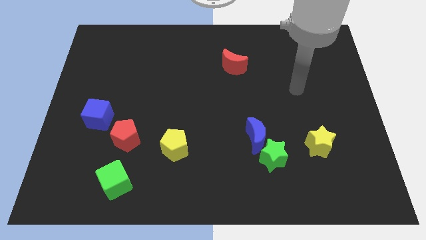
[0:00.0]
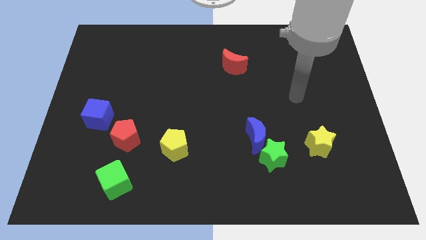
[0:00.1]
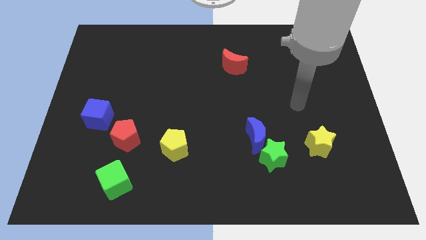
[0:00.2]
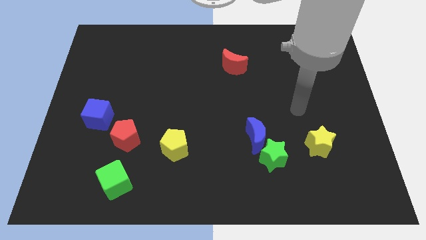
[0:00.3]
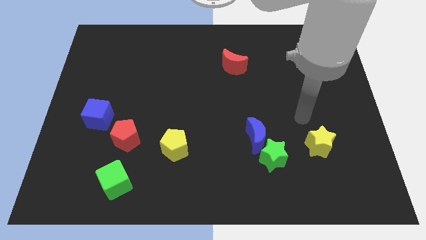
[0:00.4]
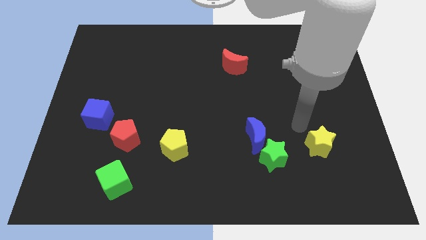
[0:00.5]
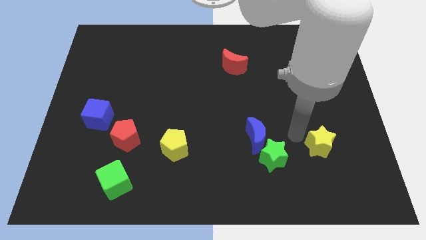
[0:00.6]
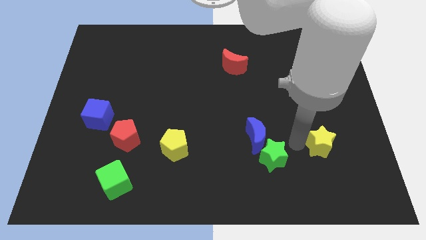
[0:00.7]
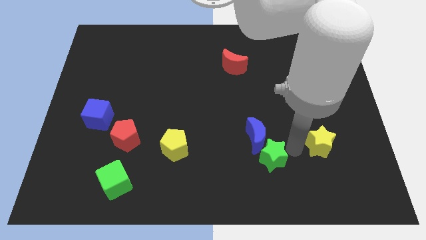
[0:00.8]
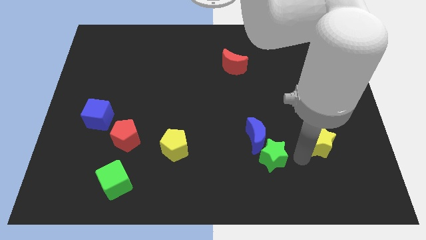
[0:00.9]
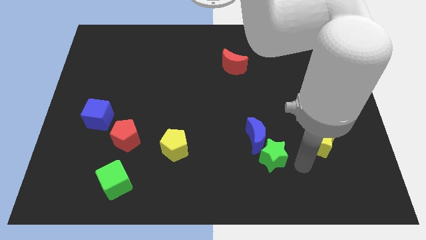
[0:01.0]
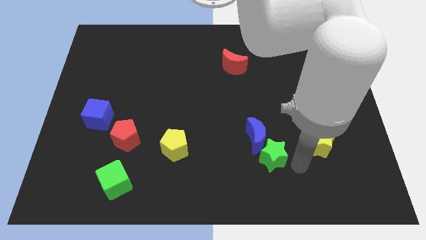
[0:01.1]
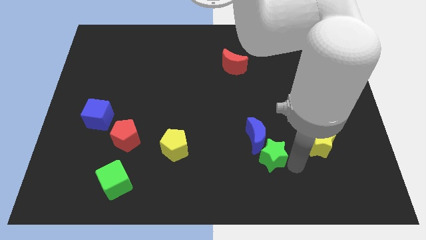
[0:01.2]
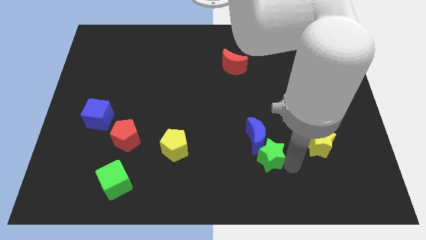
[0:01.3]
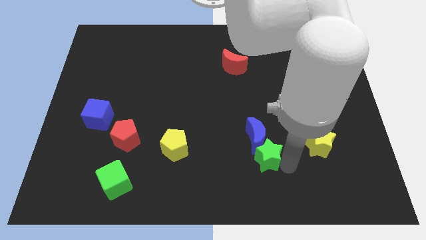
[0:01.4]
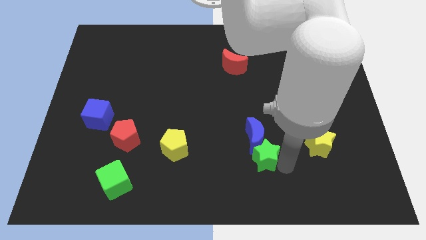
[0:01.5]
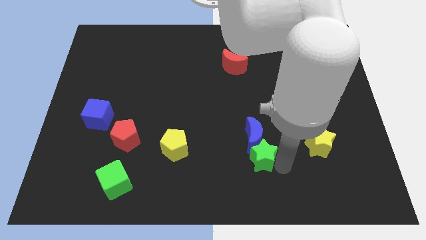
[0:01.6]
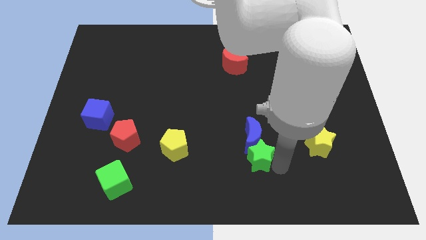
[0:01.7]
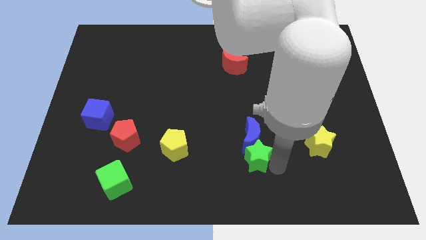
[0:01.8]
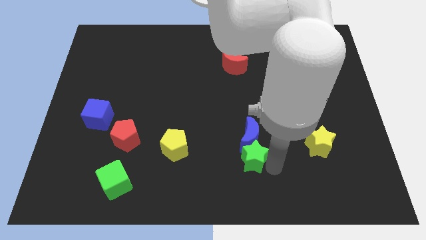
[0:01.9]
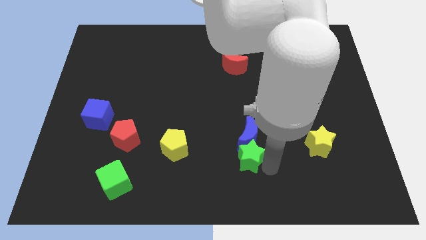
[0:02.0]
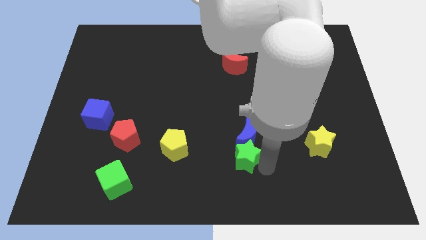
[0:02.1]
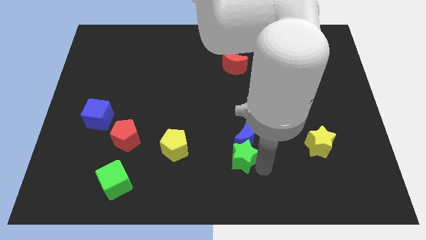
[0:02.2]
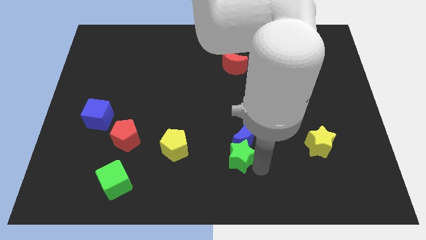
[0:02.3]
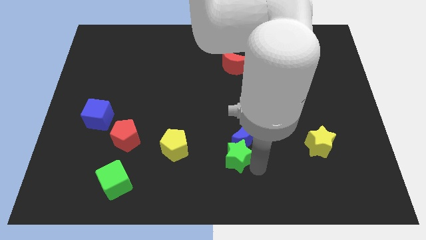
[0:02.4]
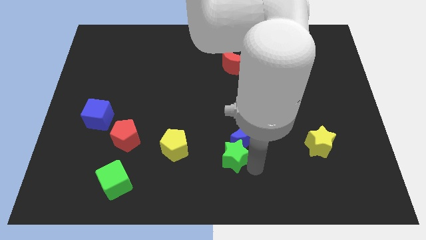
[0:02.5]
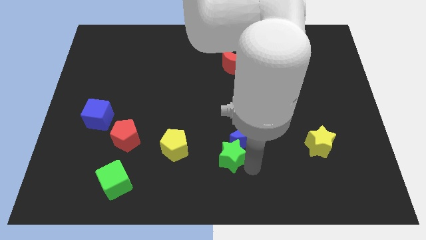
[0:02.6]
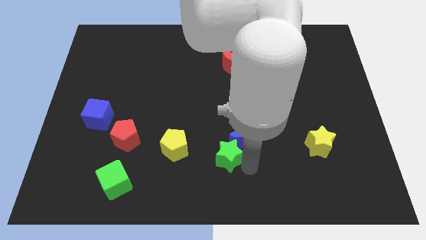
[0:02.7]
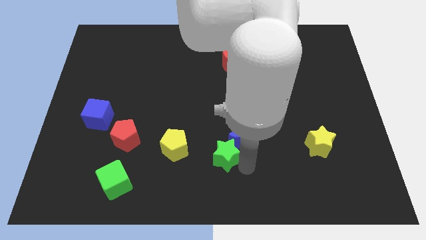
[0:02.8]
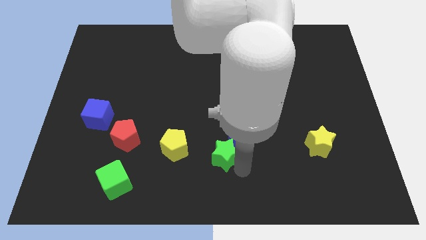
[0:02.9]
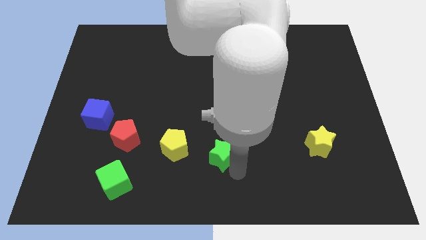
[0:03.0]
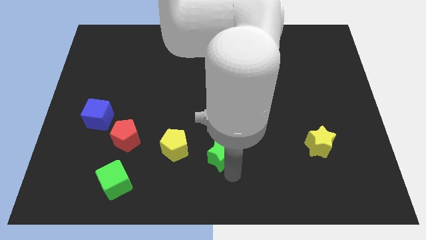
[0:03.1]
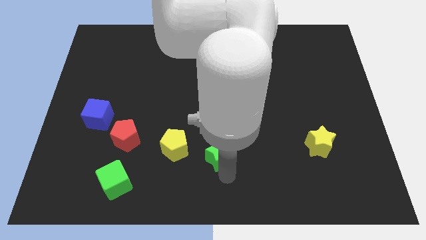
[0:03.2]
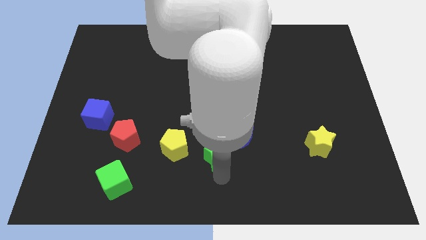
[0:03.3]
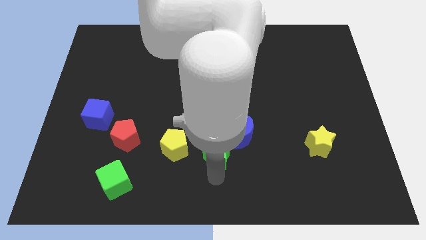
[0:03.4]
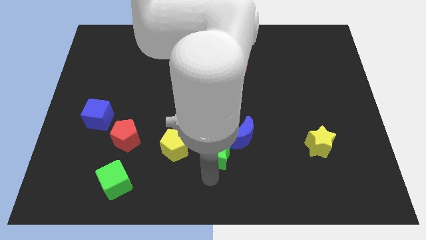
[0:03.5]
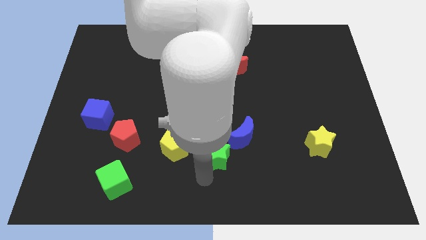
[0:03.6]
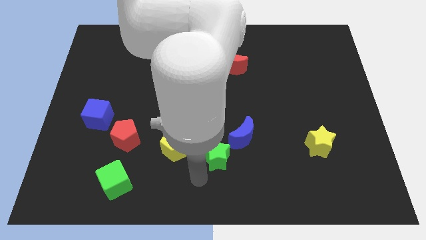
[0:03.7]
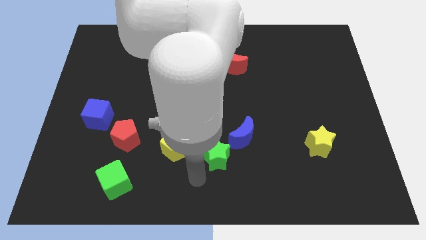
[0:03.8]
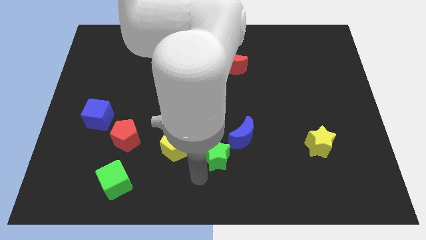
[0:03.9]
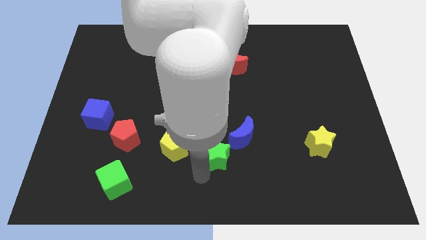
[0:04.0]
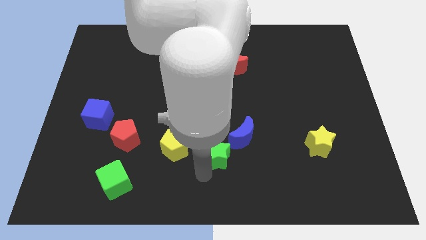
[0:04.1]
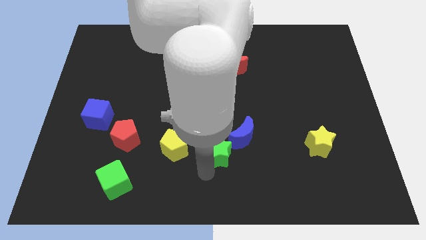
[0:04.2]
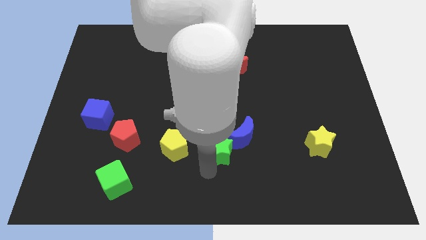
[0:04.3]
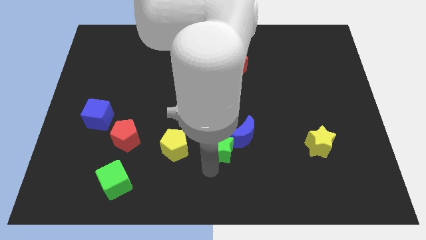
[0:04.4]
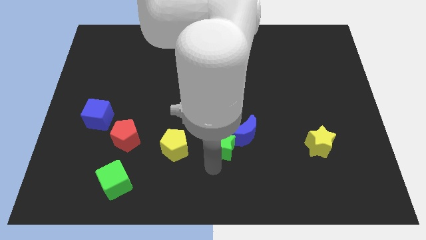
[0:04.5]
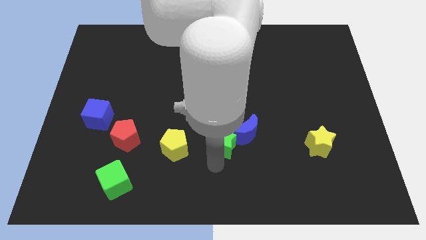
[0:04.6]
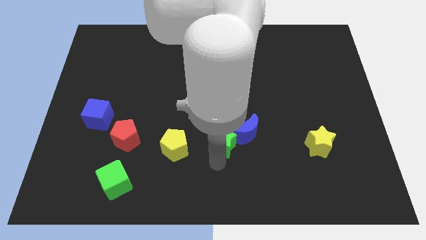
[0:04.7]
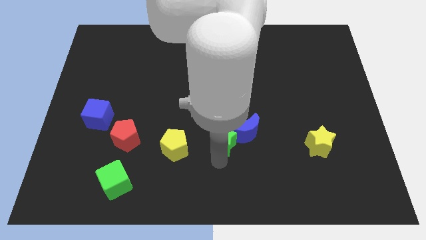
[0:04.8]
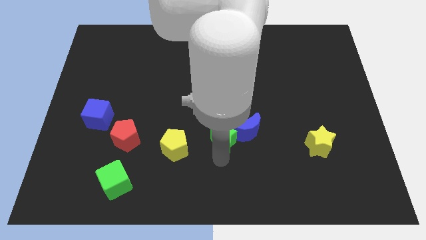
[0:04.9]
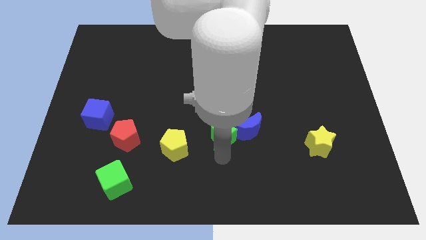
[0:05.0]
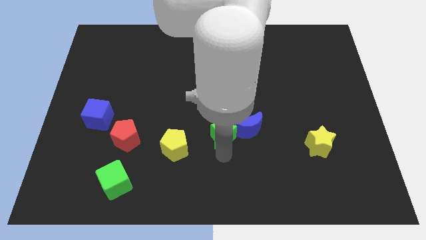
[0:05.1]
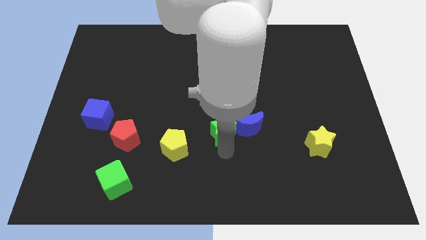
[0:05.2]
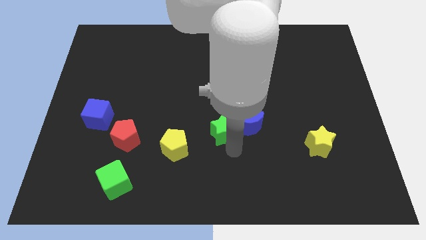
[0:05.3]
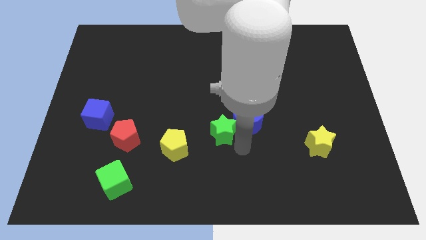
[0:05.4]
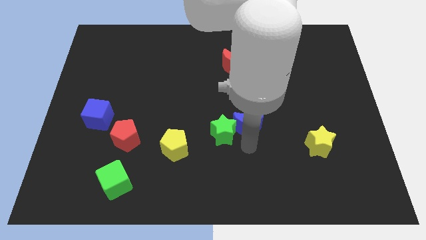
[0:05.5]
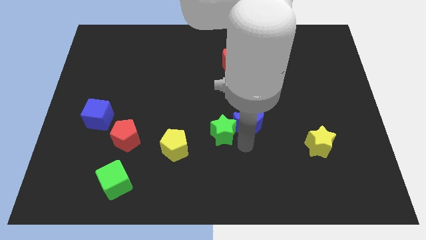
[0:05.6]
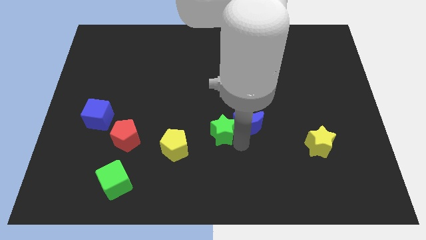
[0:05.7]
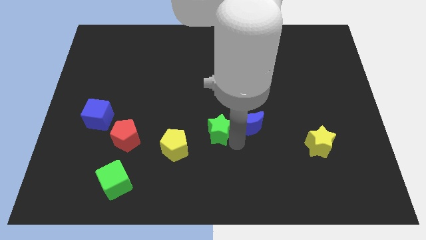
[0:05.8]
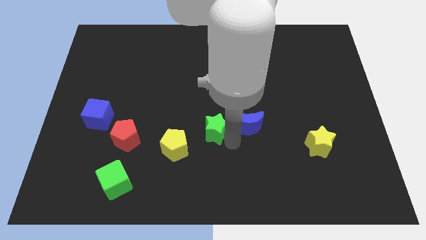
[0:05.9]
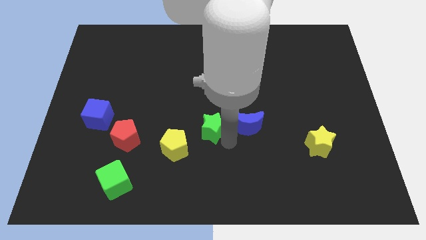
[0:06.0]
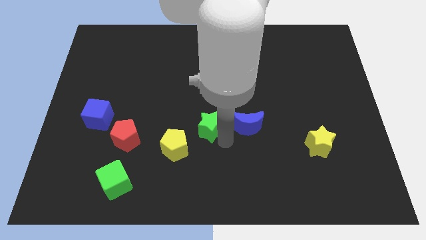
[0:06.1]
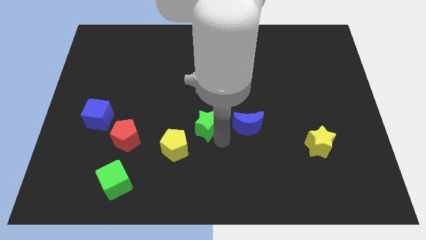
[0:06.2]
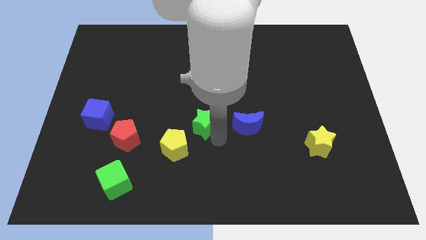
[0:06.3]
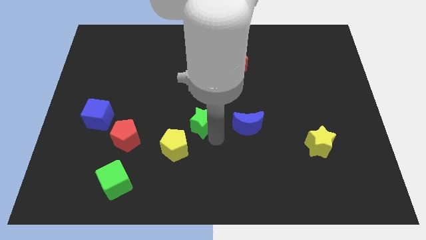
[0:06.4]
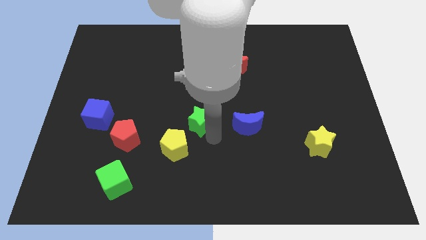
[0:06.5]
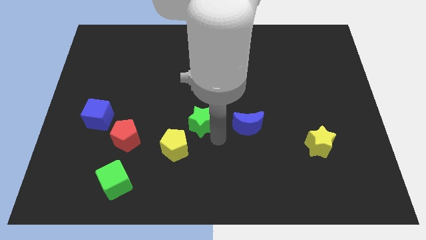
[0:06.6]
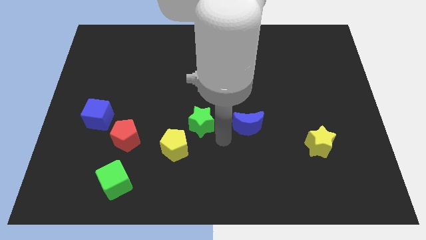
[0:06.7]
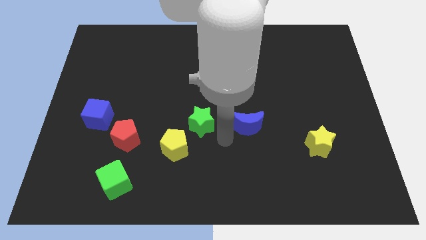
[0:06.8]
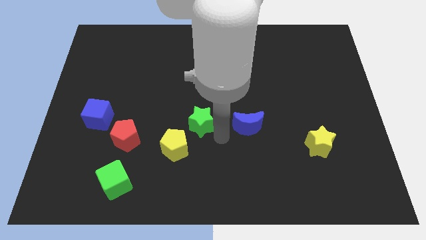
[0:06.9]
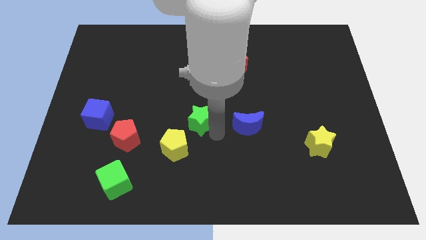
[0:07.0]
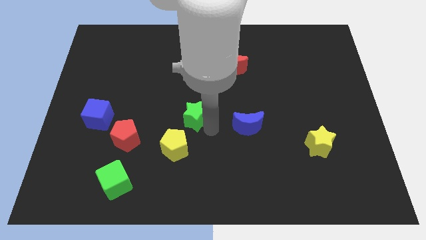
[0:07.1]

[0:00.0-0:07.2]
push the green star to the top side of the yellow pentagon

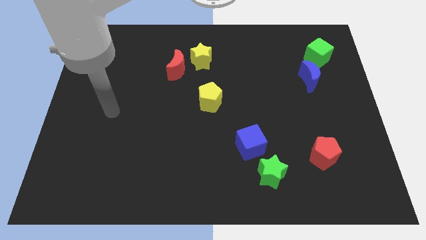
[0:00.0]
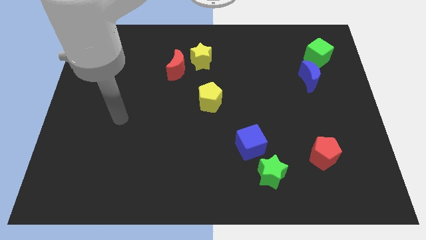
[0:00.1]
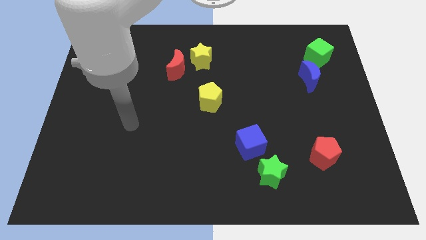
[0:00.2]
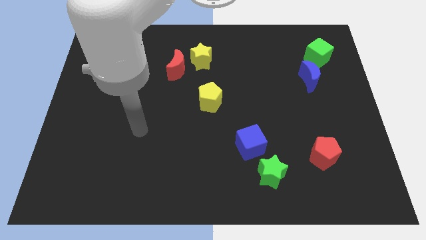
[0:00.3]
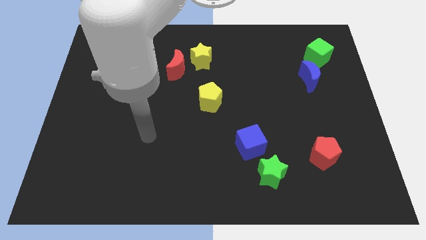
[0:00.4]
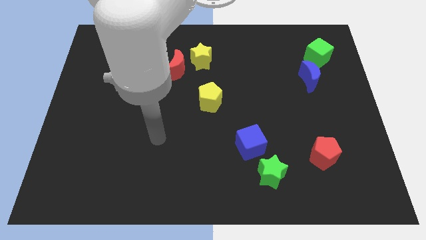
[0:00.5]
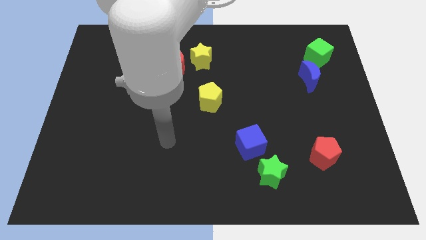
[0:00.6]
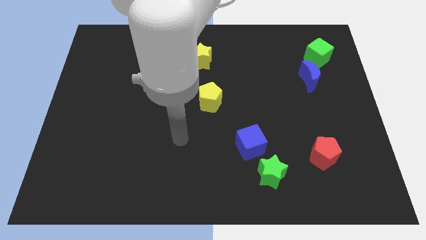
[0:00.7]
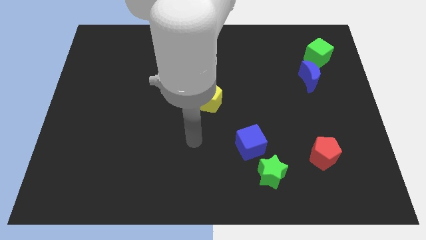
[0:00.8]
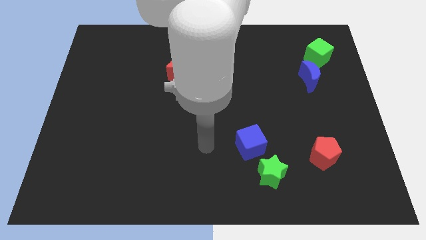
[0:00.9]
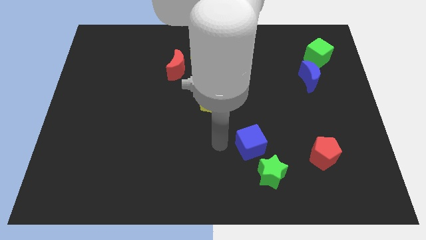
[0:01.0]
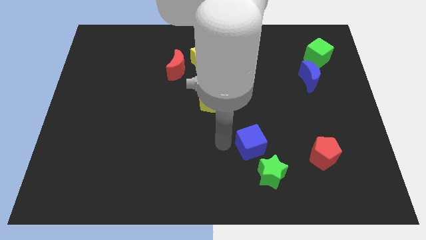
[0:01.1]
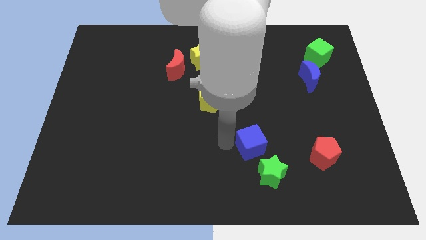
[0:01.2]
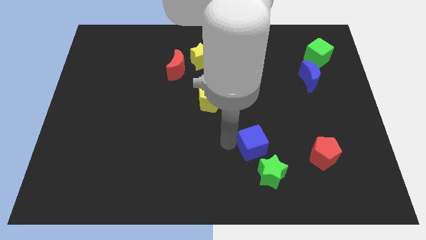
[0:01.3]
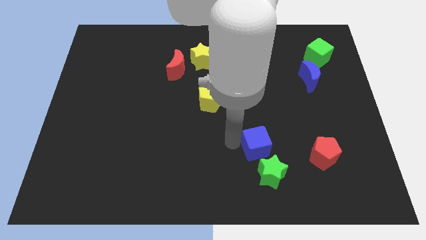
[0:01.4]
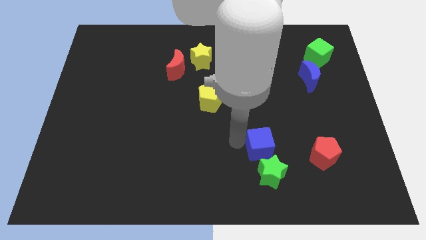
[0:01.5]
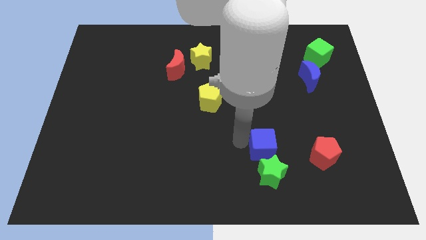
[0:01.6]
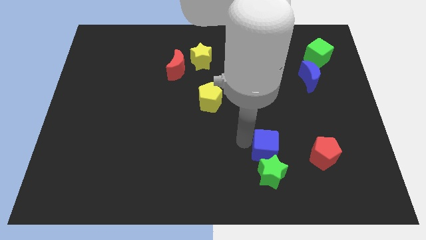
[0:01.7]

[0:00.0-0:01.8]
slide the blue cube to the top right of the green star
